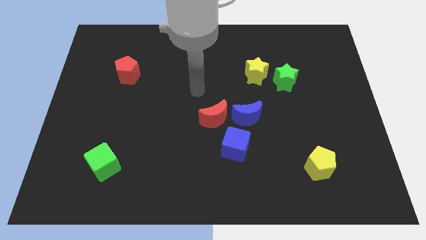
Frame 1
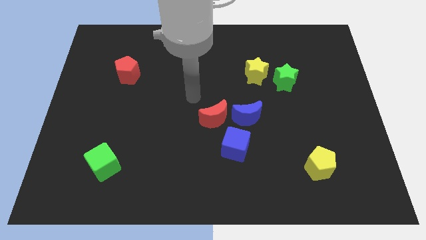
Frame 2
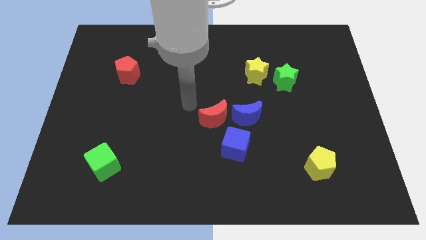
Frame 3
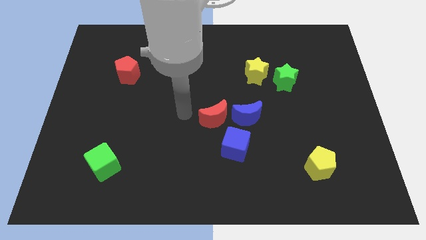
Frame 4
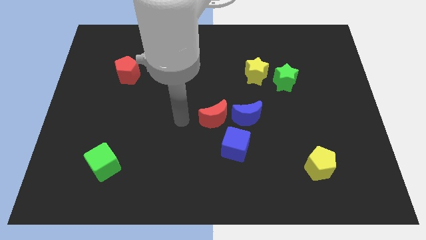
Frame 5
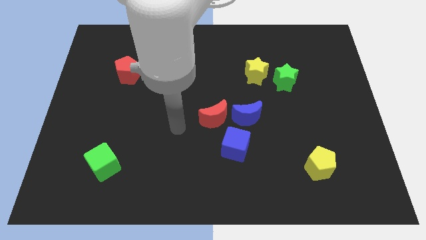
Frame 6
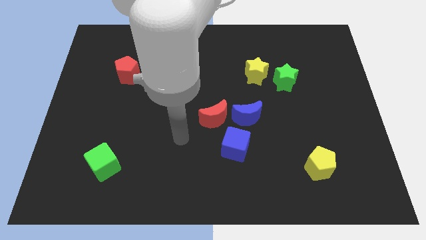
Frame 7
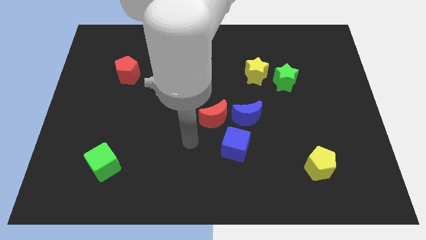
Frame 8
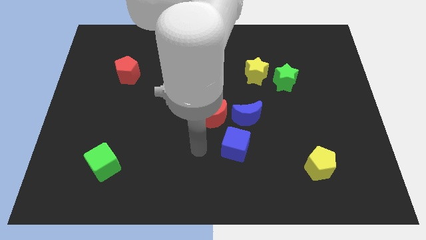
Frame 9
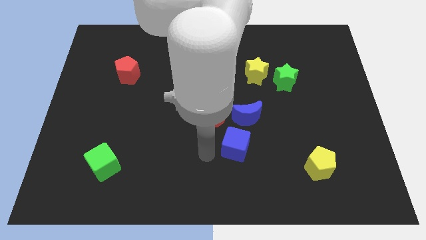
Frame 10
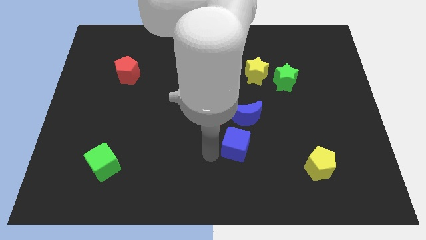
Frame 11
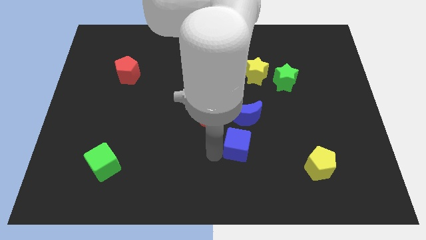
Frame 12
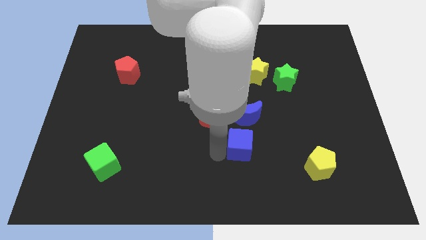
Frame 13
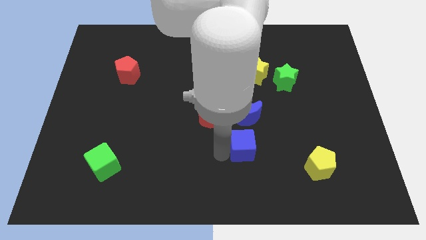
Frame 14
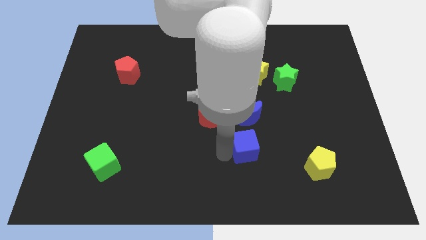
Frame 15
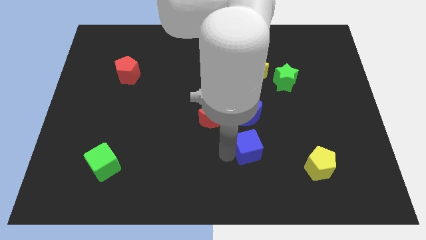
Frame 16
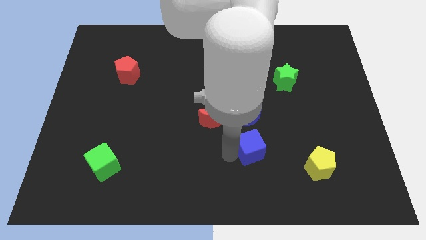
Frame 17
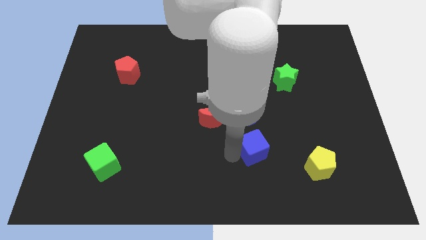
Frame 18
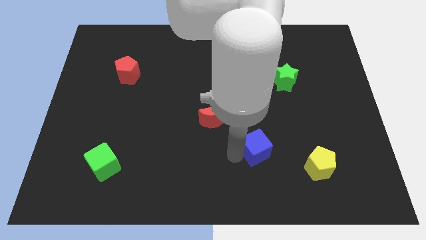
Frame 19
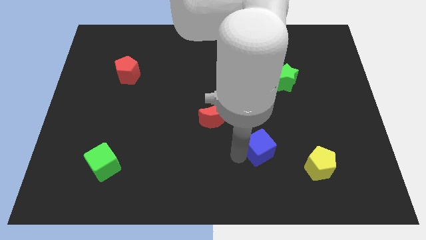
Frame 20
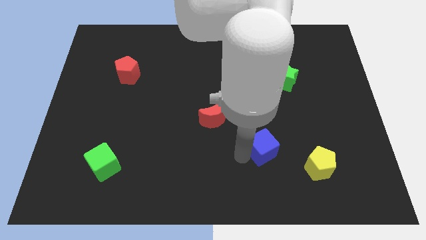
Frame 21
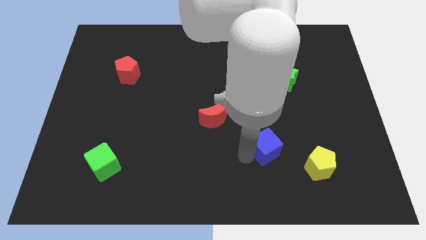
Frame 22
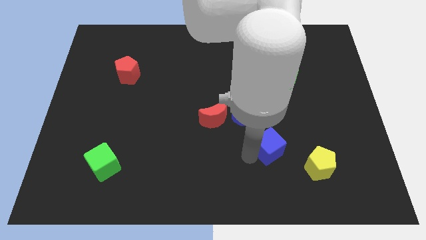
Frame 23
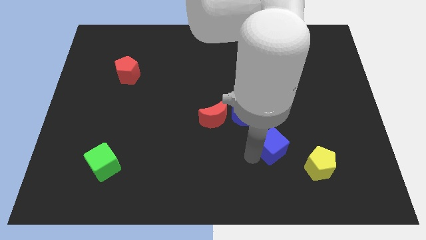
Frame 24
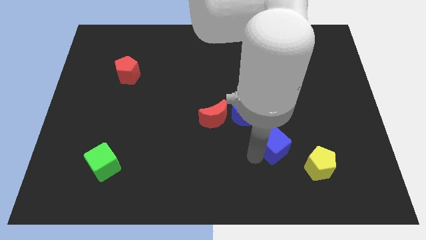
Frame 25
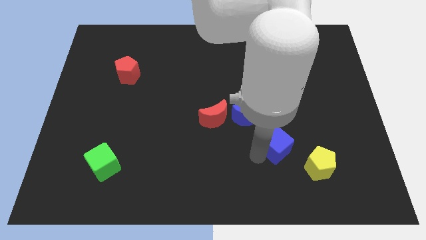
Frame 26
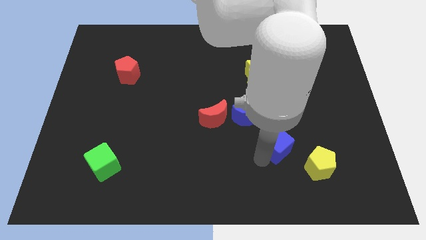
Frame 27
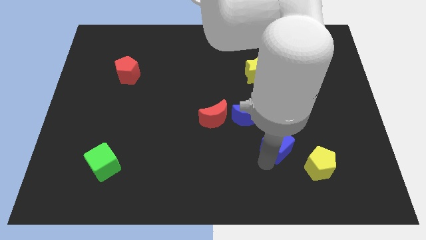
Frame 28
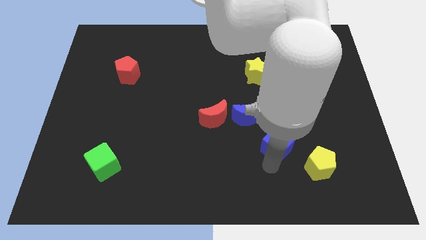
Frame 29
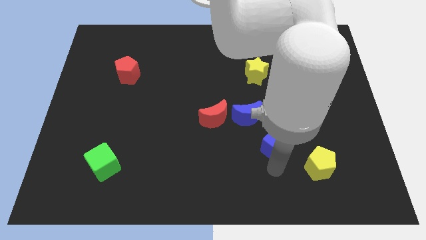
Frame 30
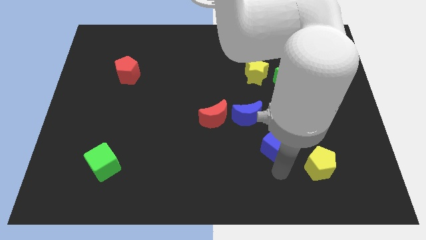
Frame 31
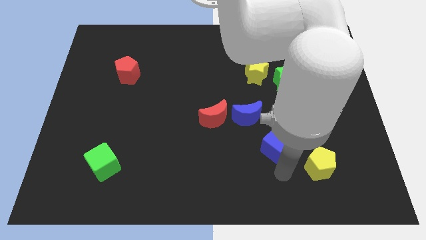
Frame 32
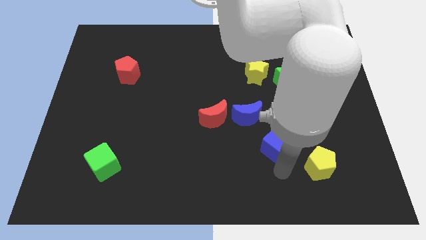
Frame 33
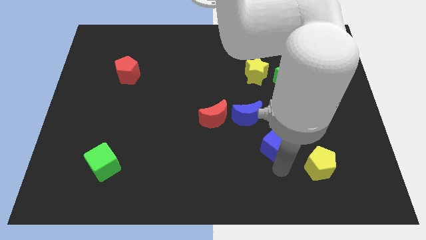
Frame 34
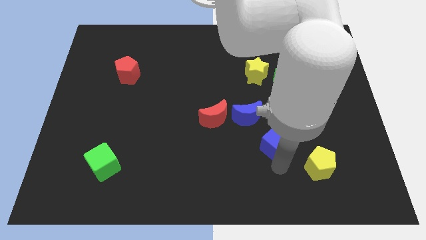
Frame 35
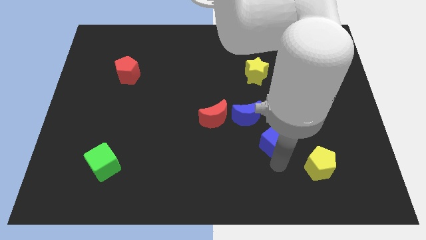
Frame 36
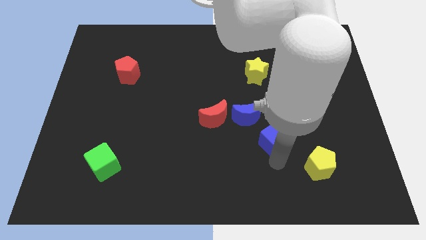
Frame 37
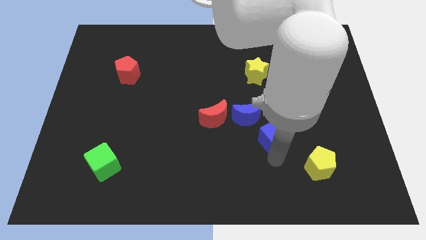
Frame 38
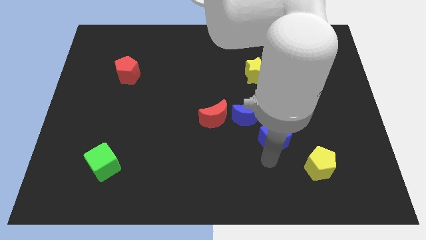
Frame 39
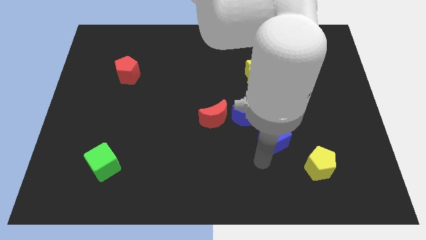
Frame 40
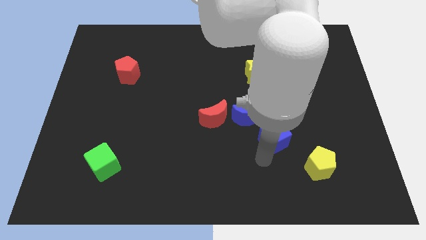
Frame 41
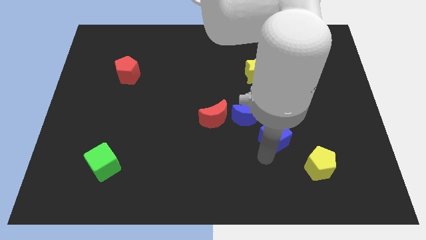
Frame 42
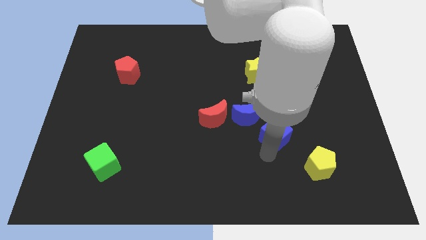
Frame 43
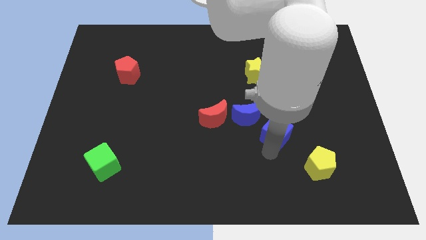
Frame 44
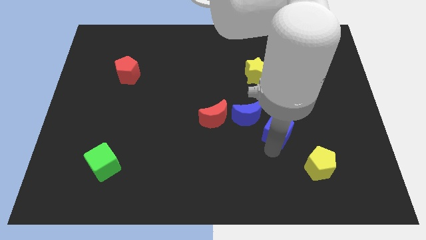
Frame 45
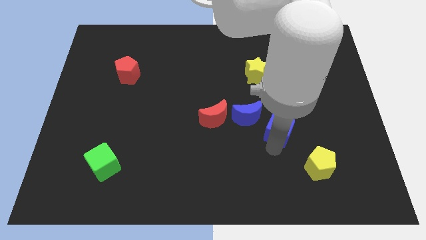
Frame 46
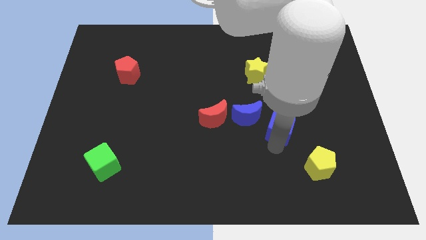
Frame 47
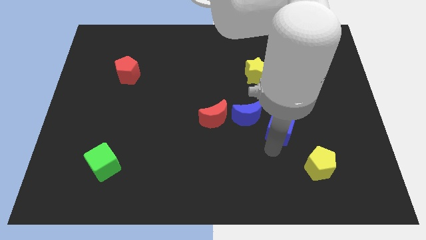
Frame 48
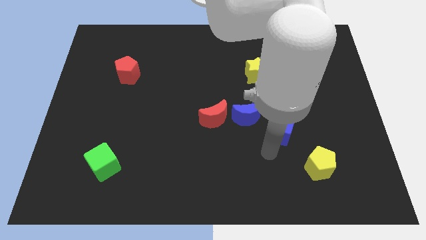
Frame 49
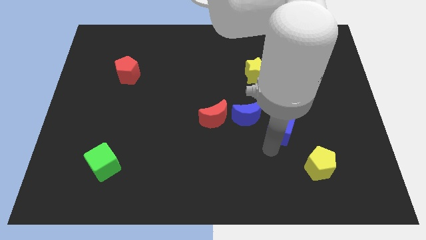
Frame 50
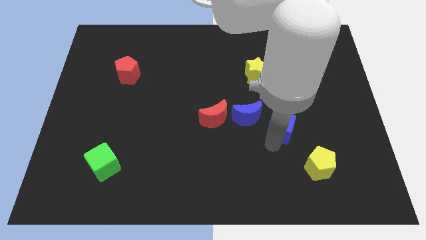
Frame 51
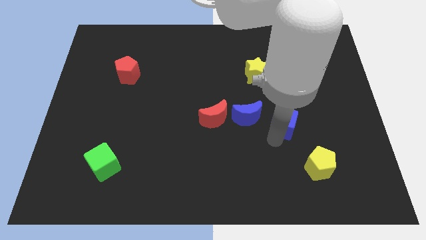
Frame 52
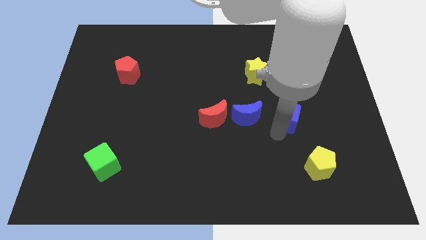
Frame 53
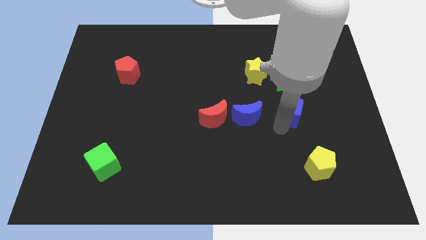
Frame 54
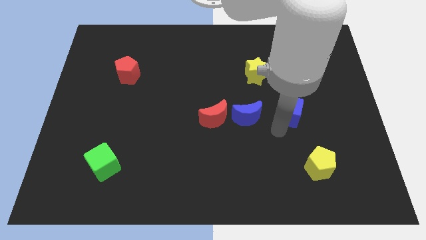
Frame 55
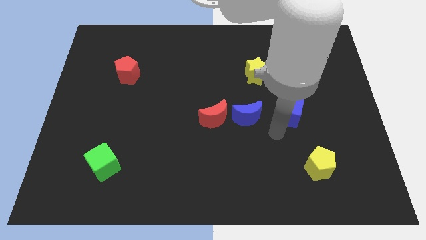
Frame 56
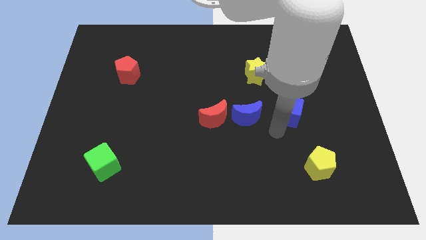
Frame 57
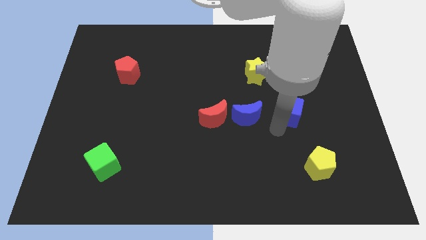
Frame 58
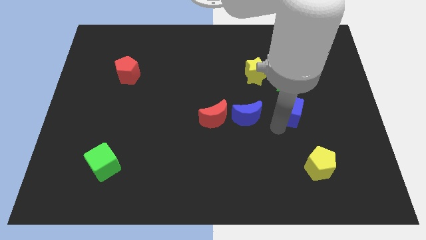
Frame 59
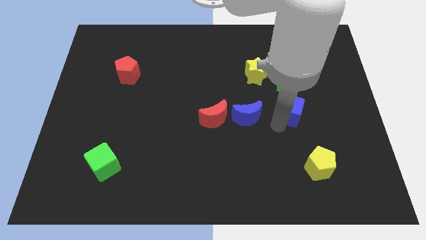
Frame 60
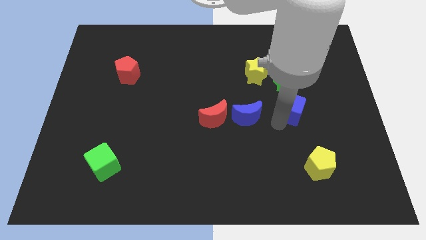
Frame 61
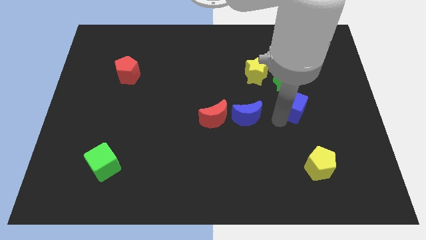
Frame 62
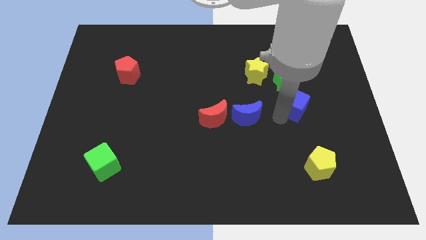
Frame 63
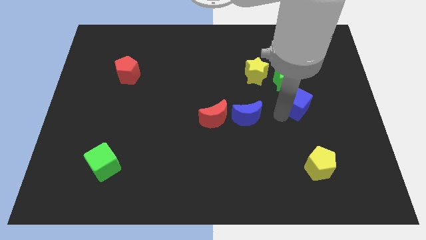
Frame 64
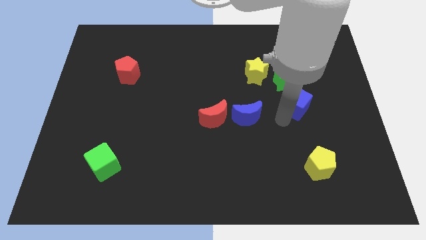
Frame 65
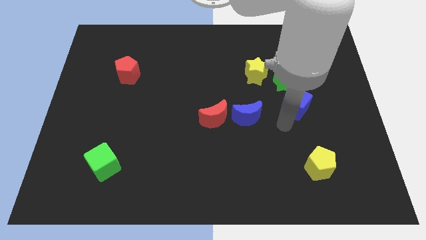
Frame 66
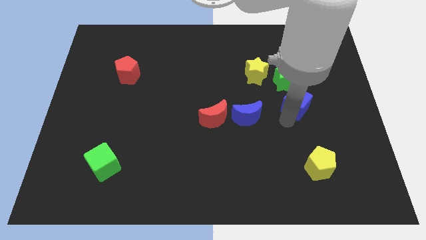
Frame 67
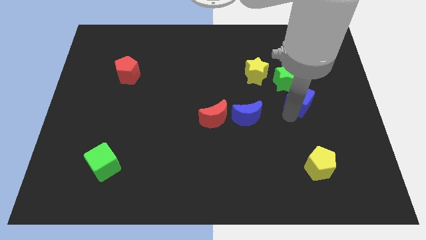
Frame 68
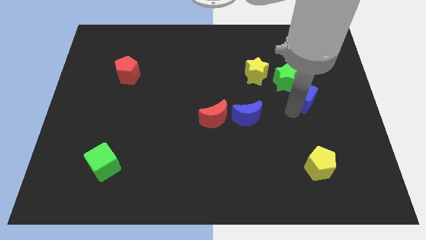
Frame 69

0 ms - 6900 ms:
push the blue cube up and right diagonally

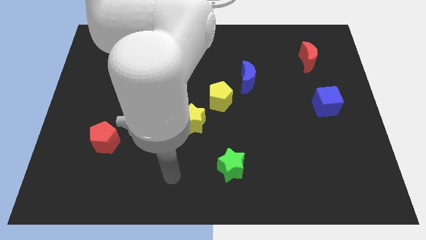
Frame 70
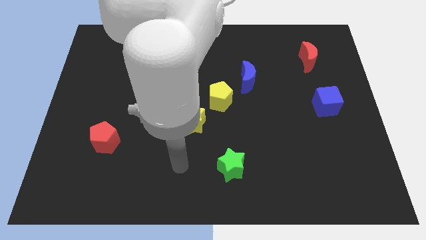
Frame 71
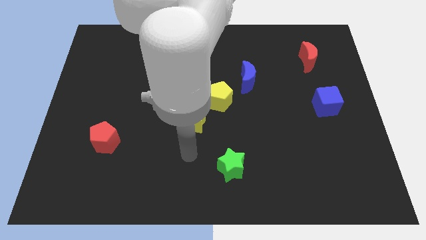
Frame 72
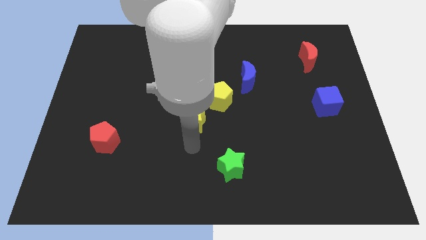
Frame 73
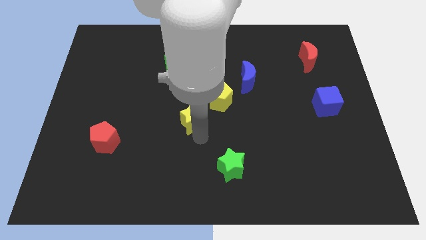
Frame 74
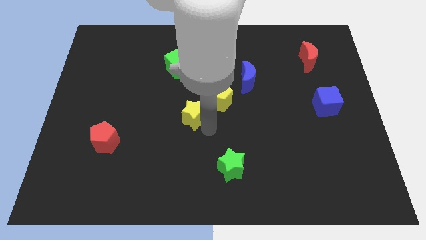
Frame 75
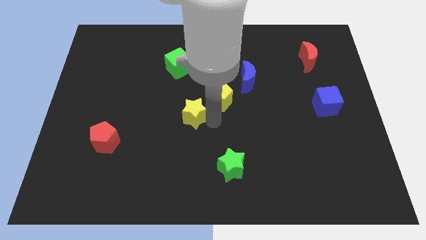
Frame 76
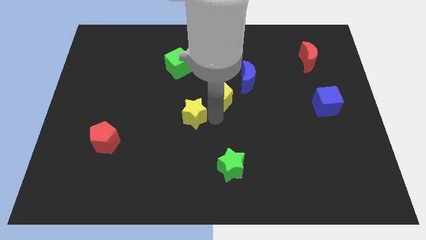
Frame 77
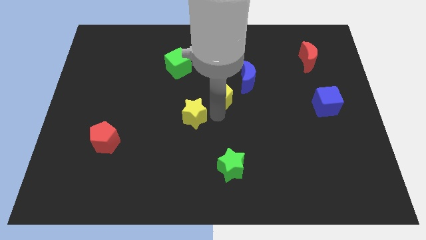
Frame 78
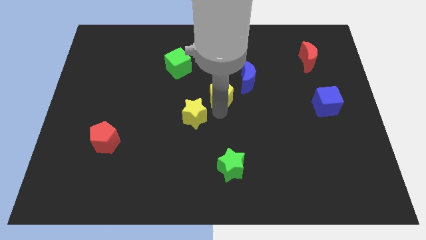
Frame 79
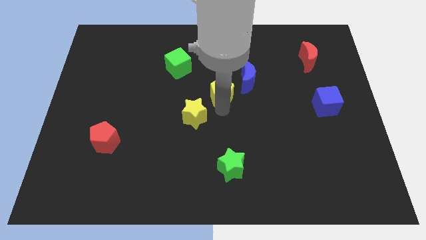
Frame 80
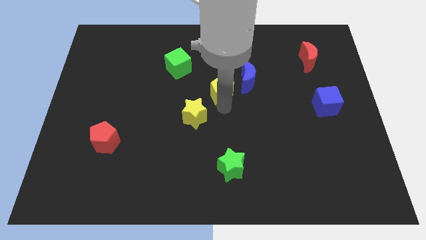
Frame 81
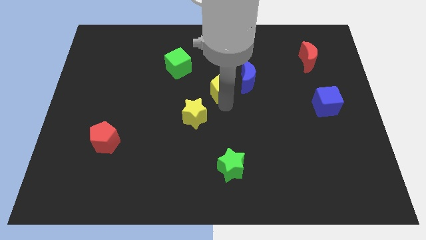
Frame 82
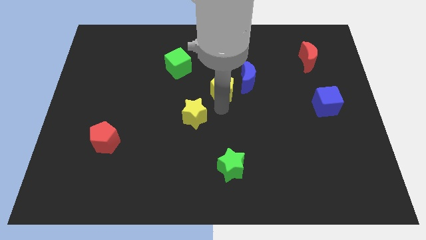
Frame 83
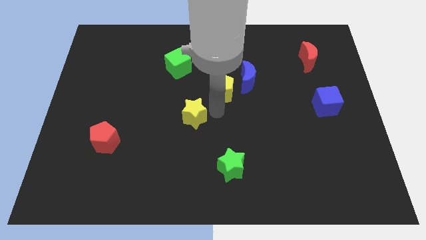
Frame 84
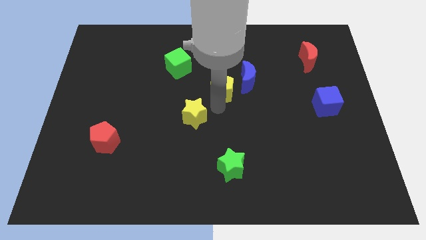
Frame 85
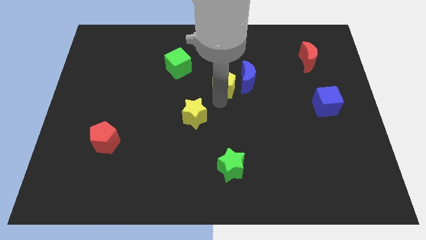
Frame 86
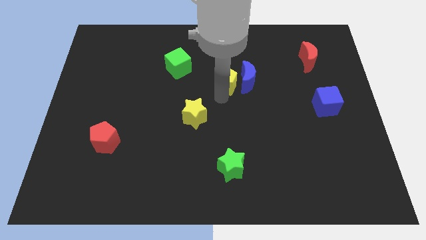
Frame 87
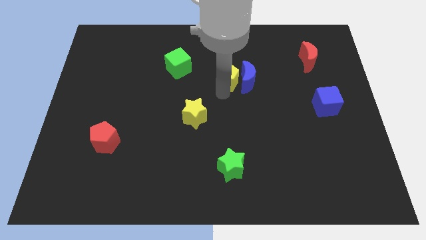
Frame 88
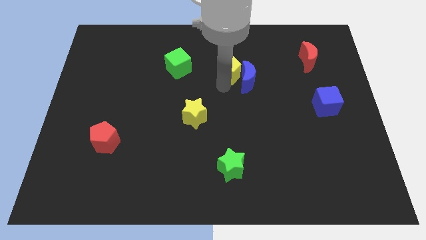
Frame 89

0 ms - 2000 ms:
push the yellow pentagon diagonally upwards and to the right a bit
